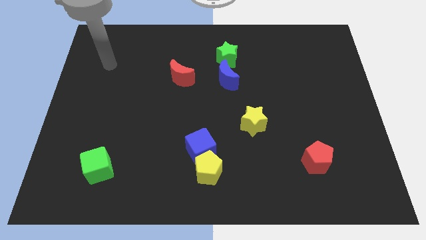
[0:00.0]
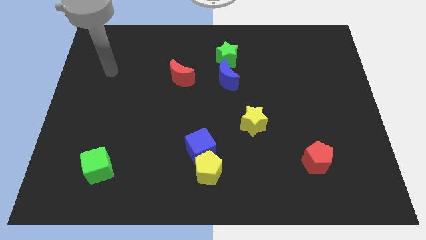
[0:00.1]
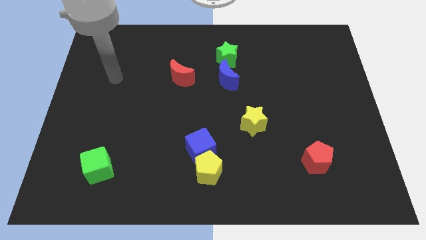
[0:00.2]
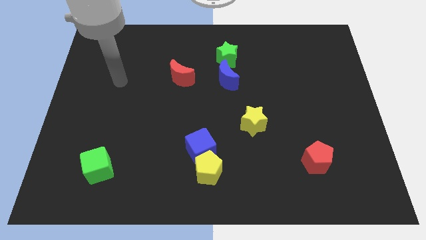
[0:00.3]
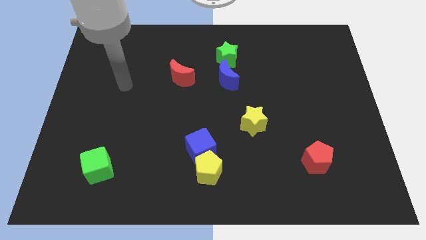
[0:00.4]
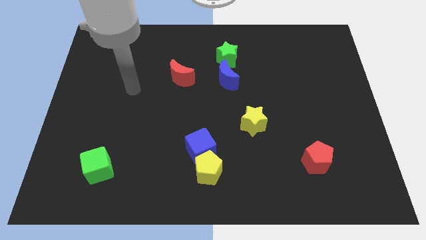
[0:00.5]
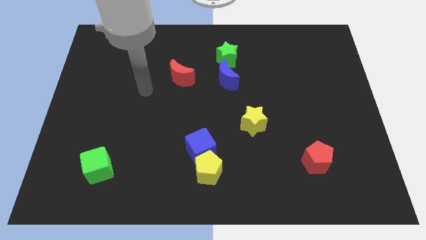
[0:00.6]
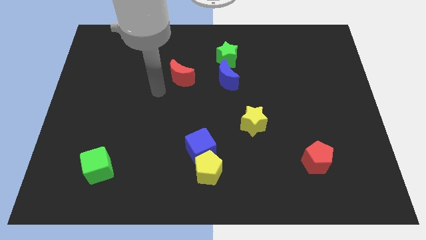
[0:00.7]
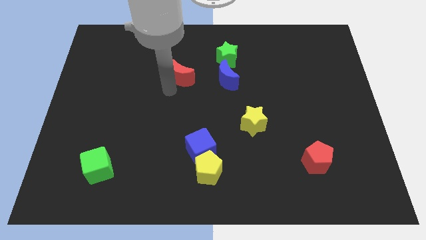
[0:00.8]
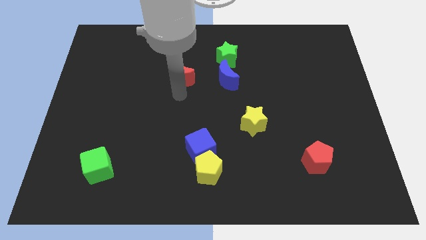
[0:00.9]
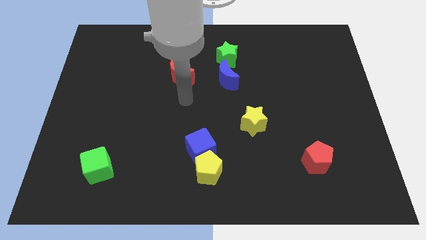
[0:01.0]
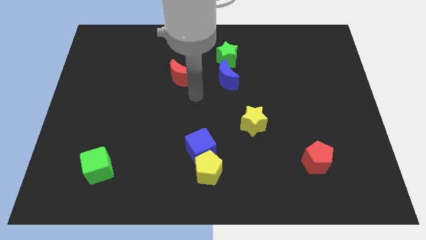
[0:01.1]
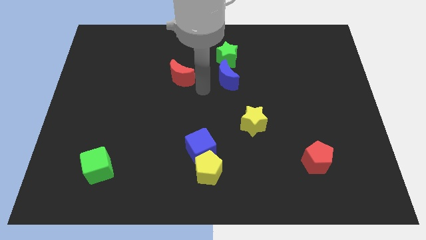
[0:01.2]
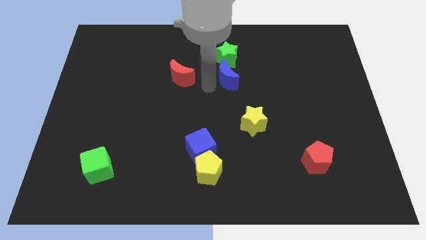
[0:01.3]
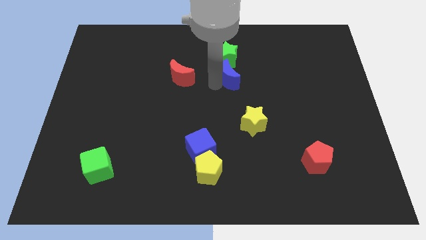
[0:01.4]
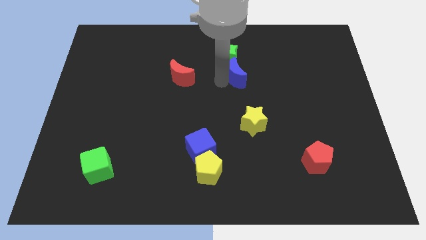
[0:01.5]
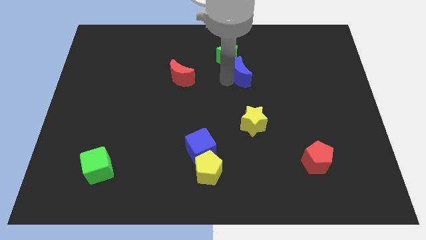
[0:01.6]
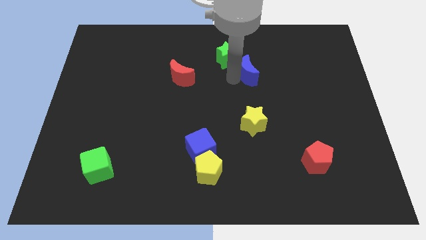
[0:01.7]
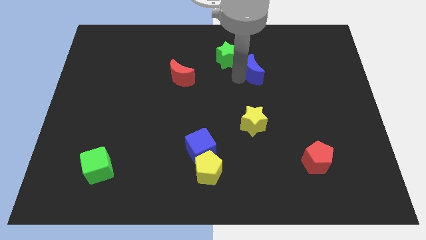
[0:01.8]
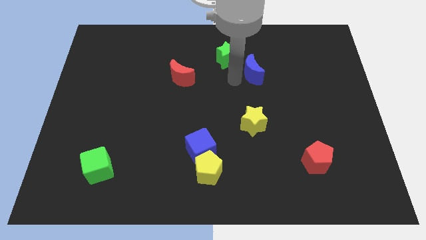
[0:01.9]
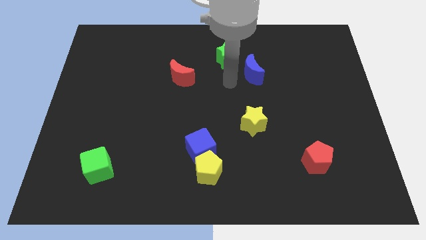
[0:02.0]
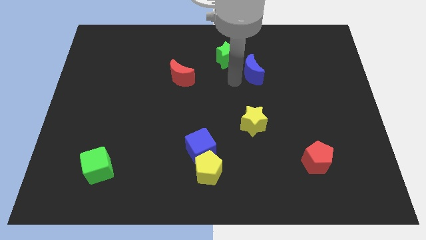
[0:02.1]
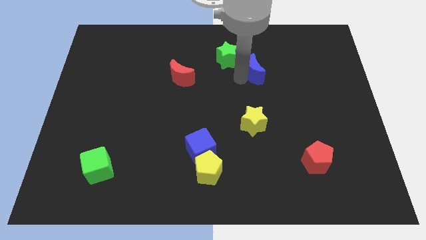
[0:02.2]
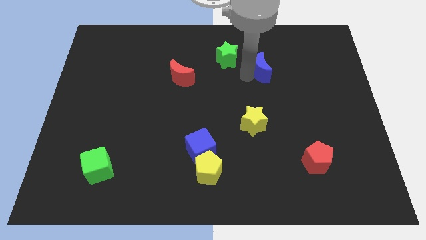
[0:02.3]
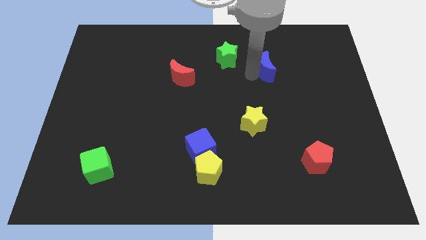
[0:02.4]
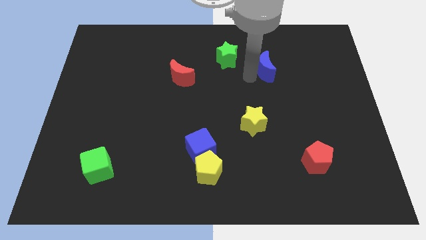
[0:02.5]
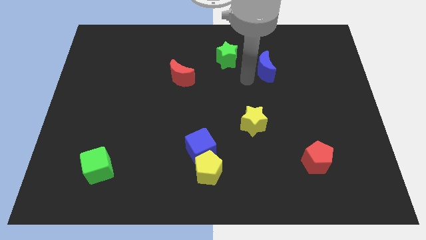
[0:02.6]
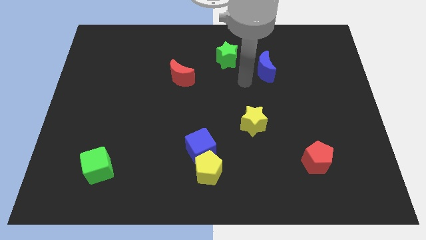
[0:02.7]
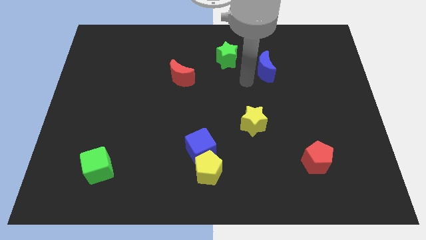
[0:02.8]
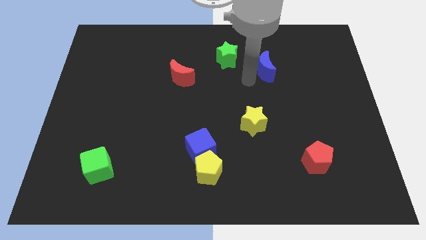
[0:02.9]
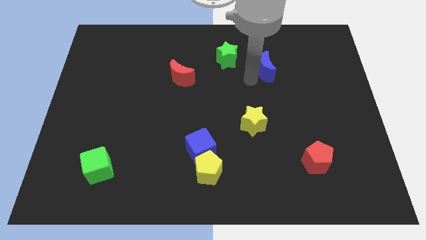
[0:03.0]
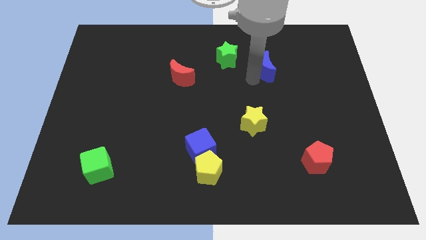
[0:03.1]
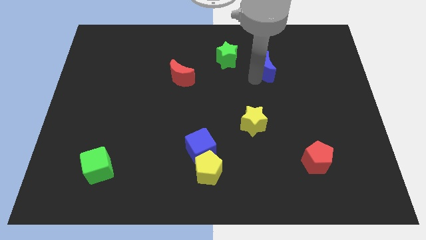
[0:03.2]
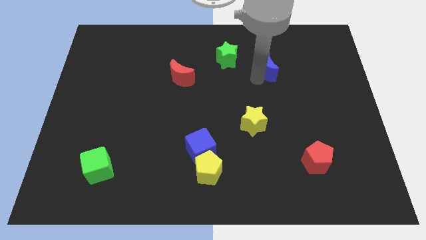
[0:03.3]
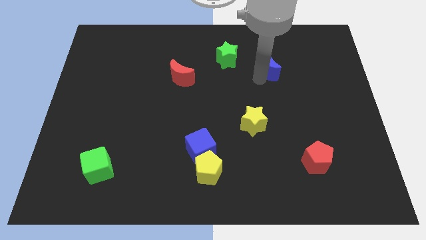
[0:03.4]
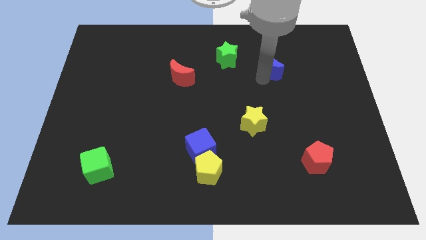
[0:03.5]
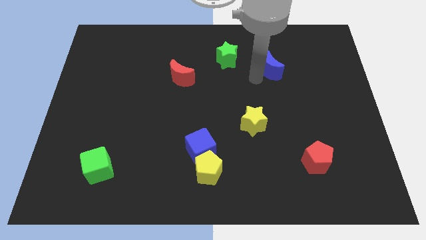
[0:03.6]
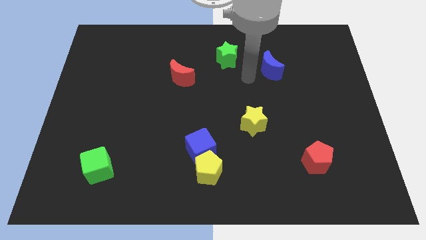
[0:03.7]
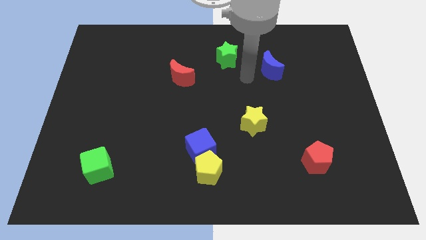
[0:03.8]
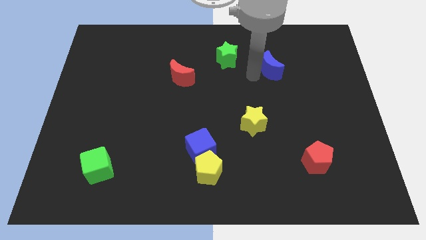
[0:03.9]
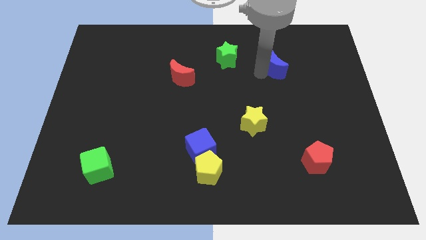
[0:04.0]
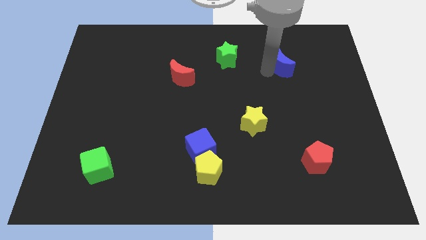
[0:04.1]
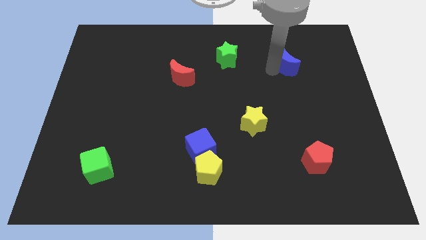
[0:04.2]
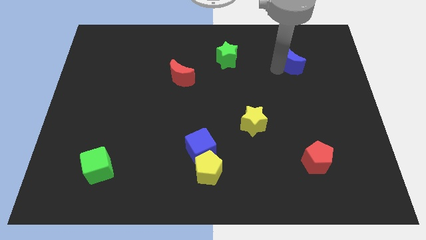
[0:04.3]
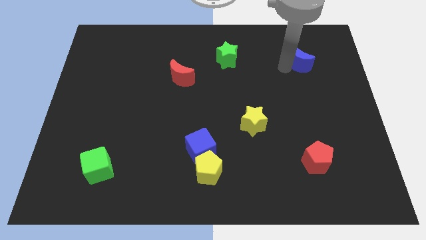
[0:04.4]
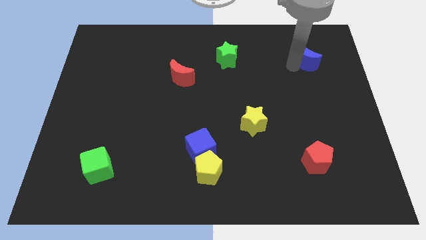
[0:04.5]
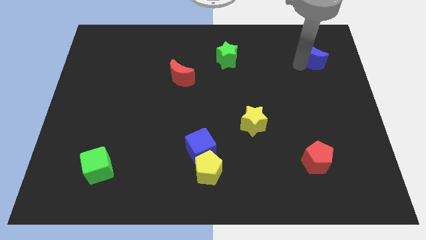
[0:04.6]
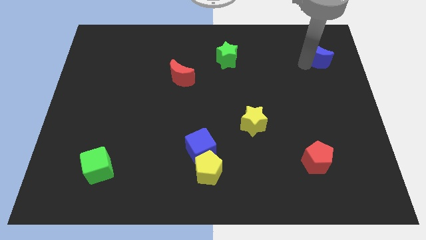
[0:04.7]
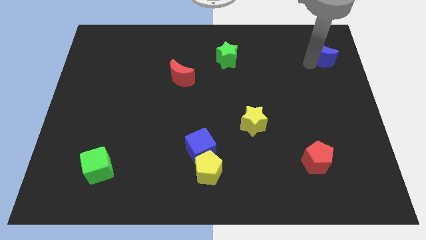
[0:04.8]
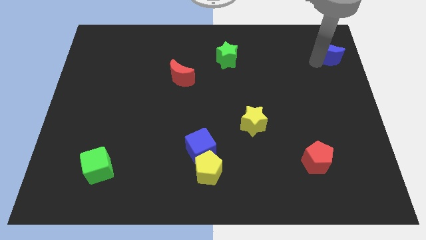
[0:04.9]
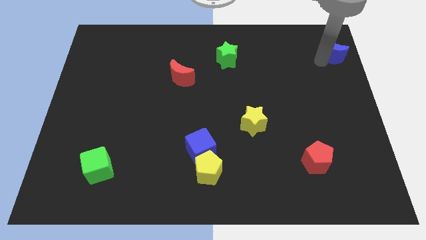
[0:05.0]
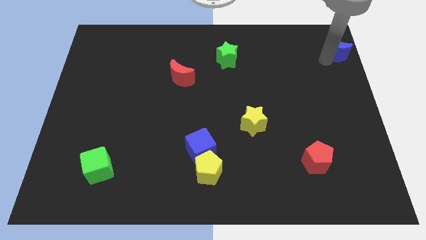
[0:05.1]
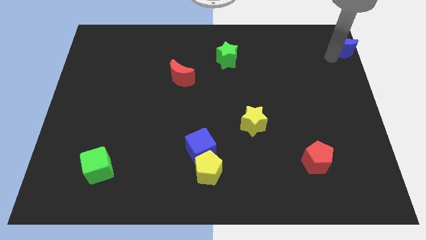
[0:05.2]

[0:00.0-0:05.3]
move the blue moon to the top right of the board

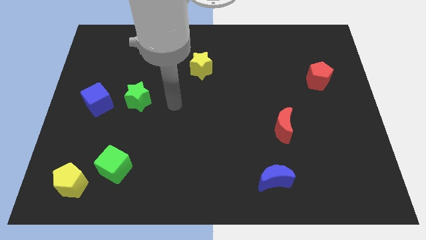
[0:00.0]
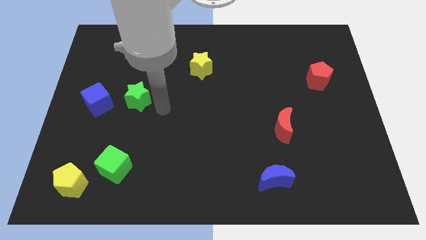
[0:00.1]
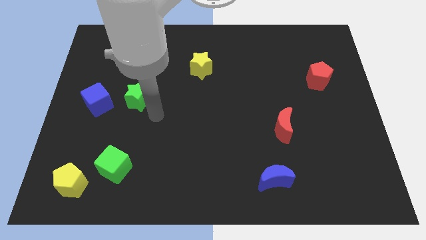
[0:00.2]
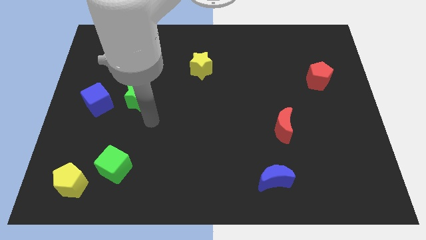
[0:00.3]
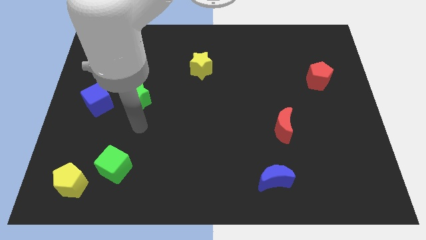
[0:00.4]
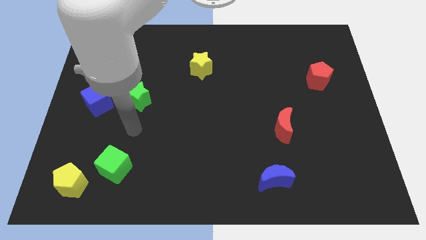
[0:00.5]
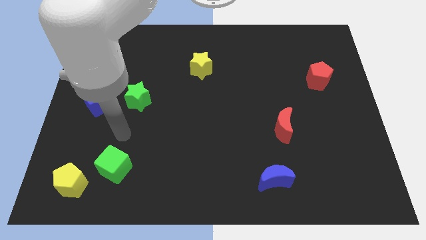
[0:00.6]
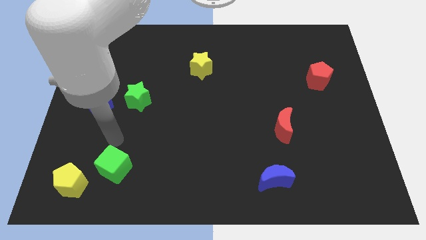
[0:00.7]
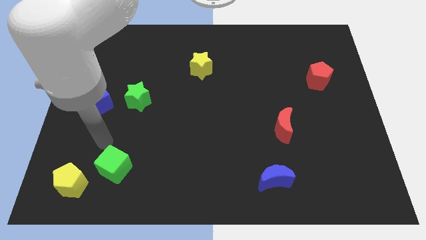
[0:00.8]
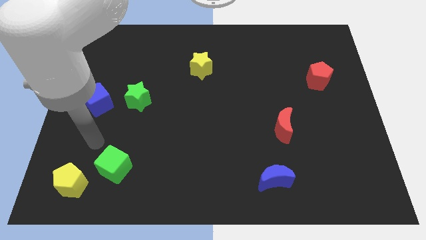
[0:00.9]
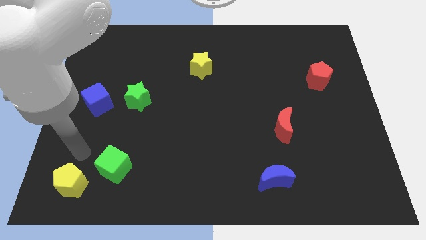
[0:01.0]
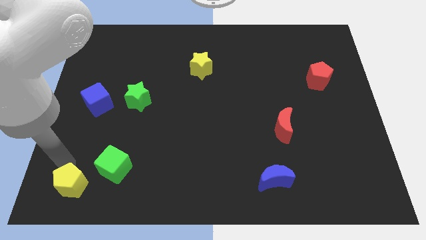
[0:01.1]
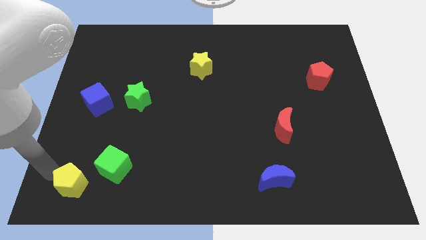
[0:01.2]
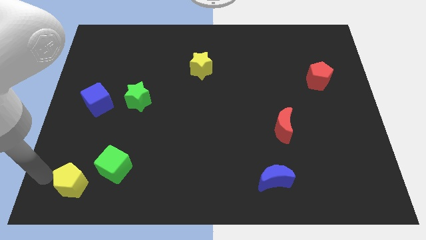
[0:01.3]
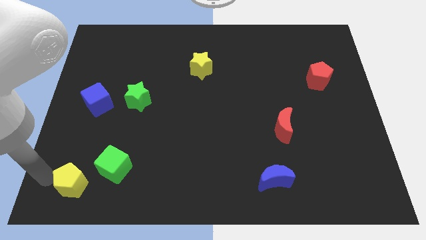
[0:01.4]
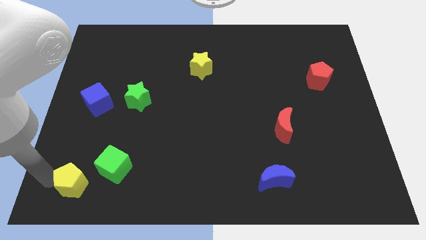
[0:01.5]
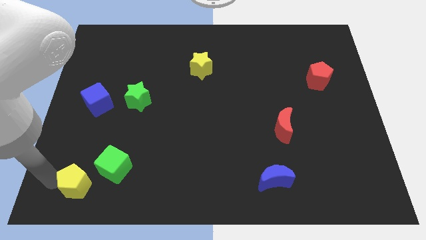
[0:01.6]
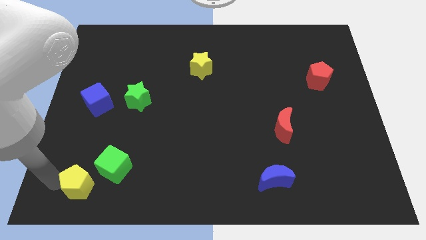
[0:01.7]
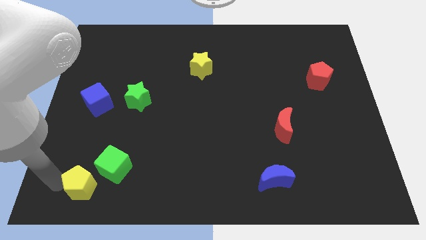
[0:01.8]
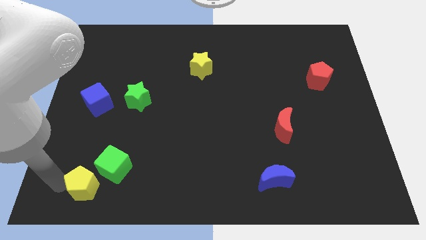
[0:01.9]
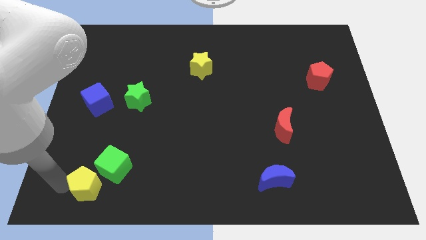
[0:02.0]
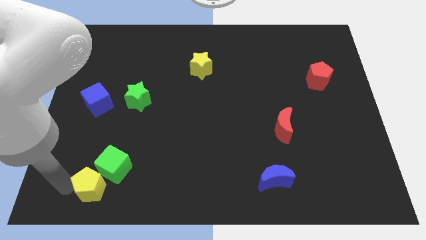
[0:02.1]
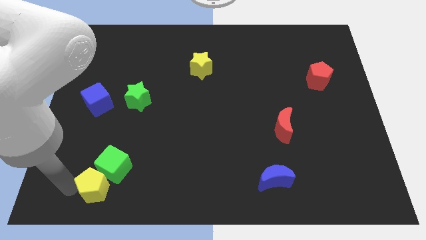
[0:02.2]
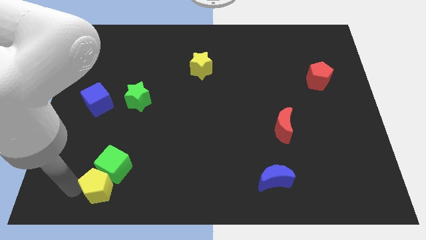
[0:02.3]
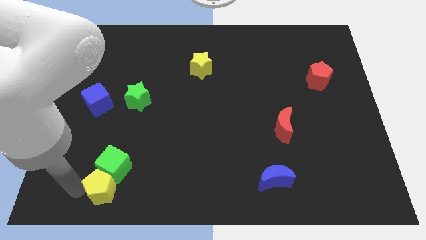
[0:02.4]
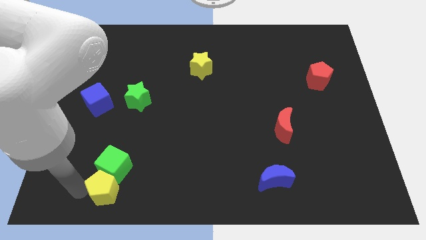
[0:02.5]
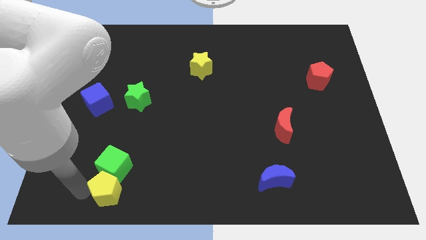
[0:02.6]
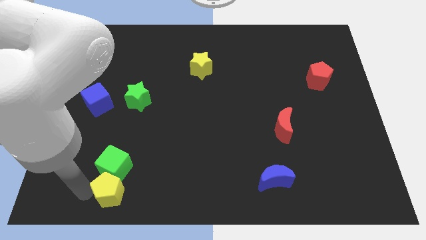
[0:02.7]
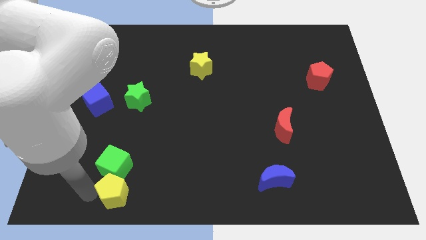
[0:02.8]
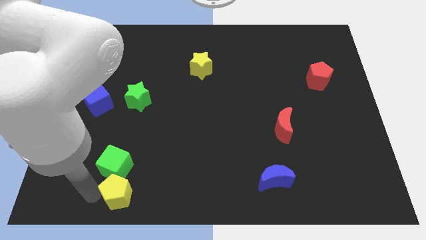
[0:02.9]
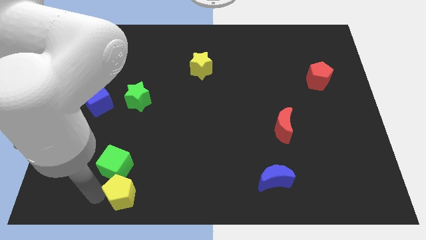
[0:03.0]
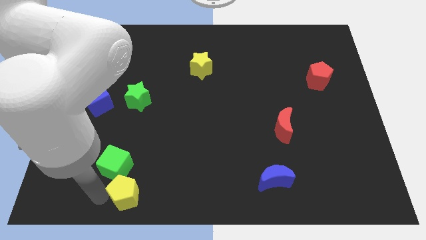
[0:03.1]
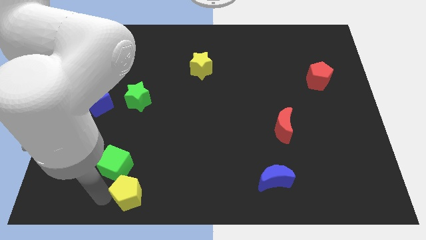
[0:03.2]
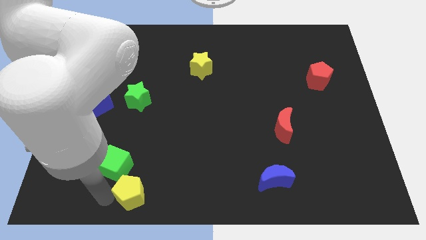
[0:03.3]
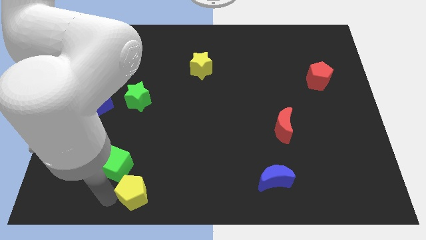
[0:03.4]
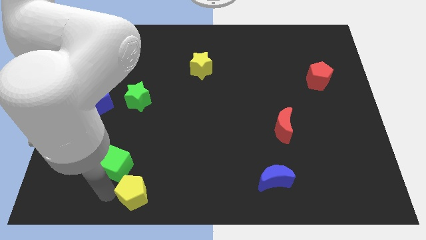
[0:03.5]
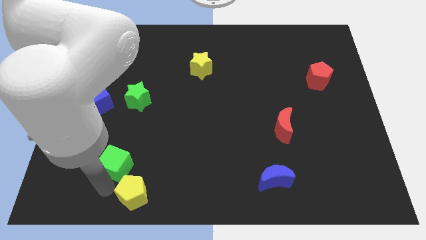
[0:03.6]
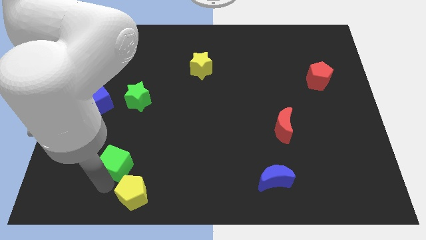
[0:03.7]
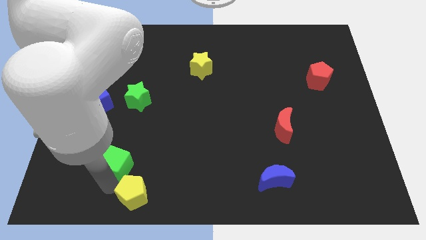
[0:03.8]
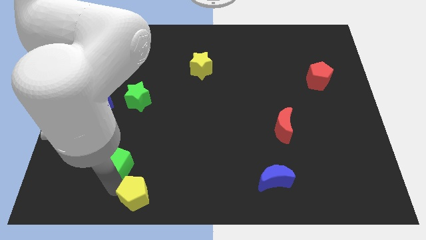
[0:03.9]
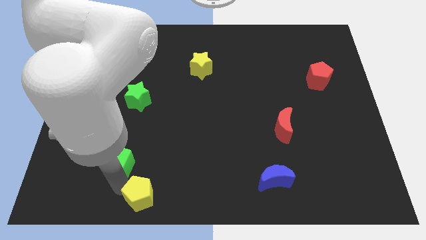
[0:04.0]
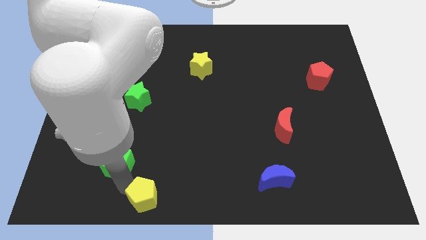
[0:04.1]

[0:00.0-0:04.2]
slide the yellow pentagon to the bottom
